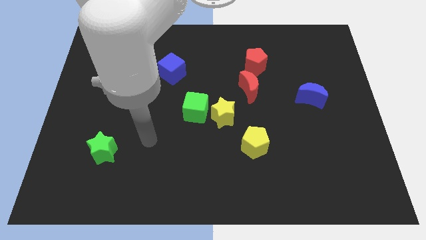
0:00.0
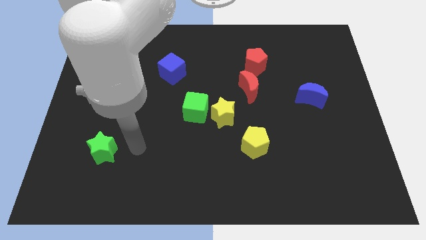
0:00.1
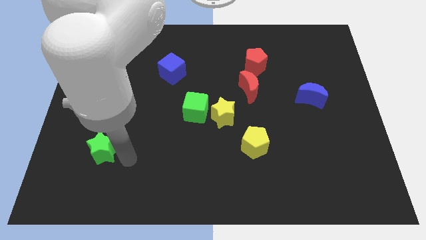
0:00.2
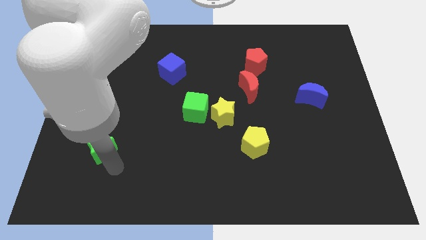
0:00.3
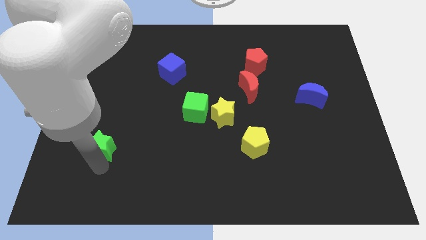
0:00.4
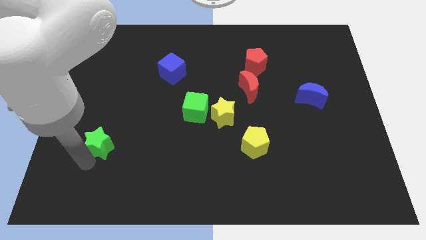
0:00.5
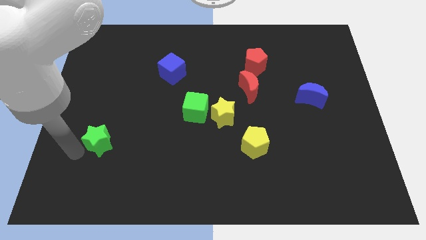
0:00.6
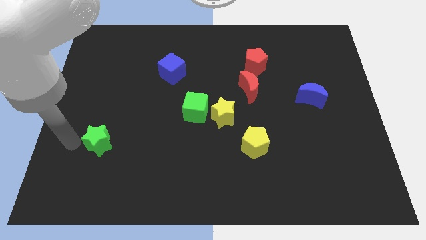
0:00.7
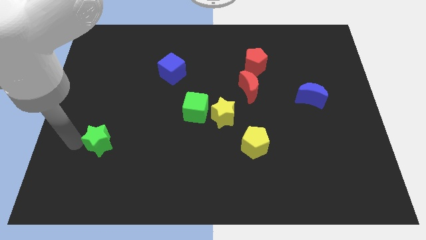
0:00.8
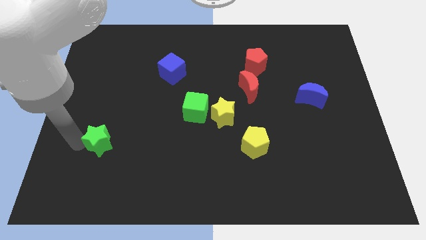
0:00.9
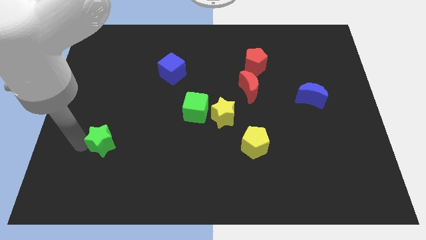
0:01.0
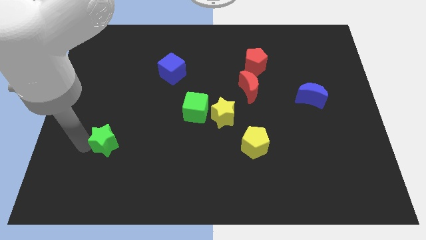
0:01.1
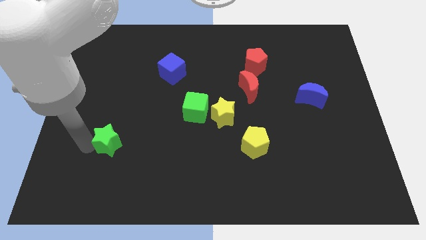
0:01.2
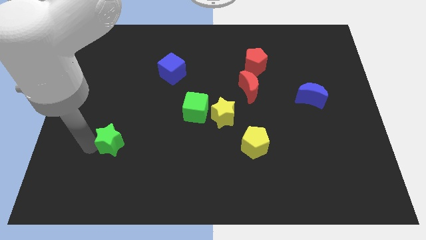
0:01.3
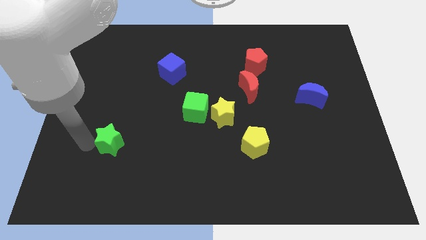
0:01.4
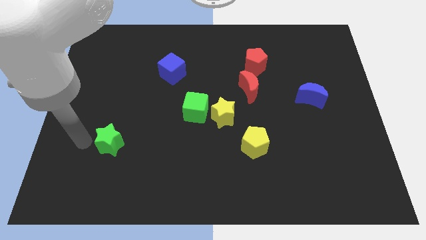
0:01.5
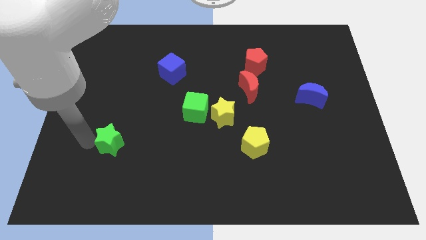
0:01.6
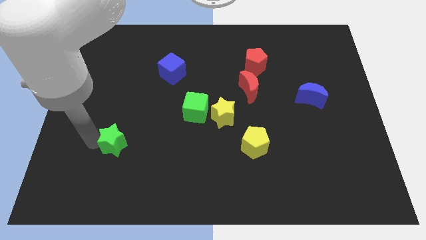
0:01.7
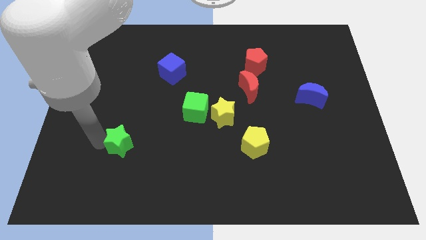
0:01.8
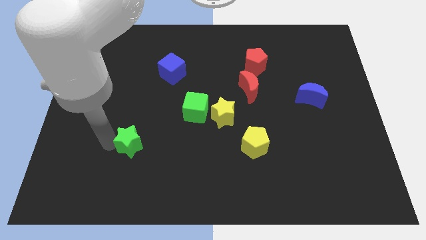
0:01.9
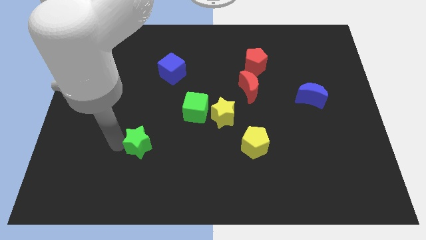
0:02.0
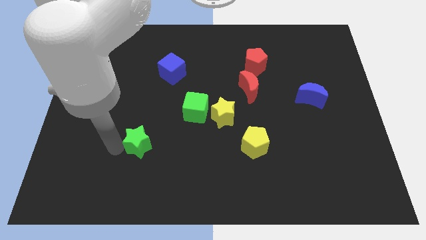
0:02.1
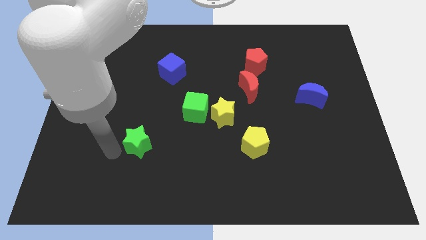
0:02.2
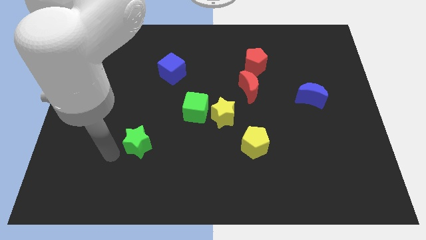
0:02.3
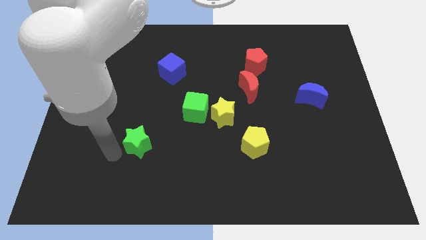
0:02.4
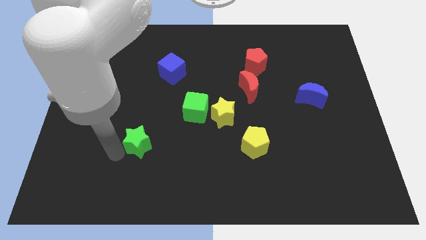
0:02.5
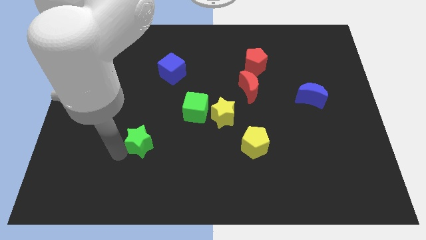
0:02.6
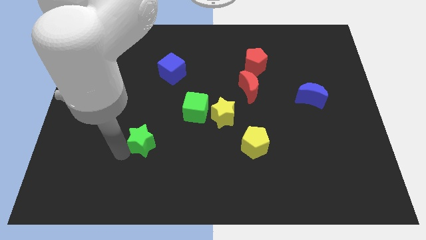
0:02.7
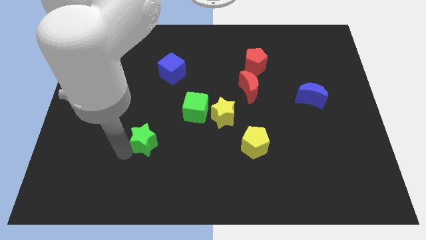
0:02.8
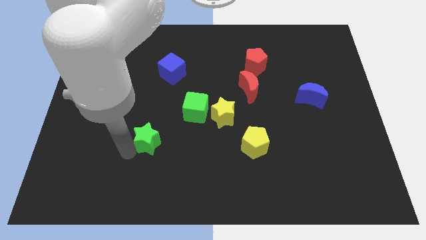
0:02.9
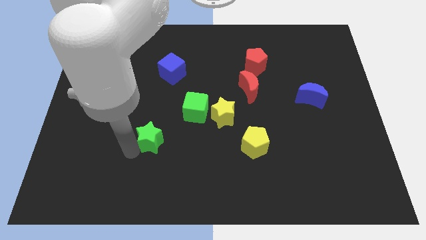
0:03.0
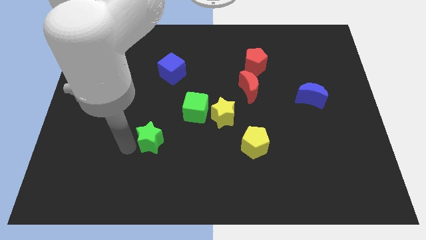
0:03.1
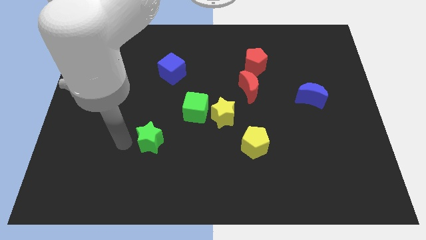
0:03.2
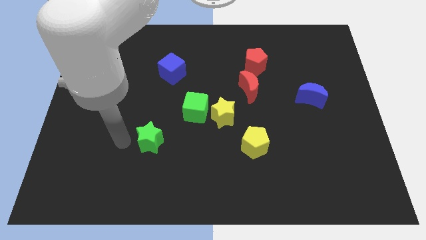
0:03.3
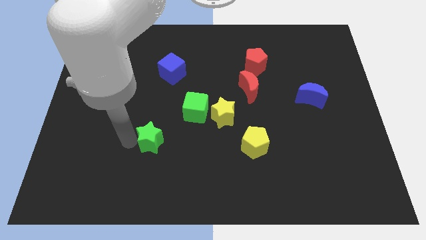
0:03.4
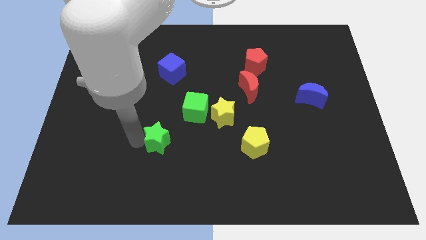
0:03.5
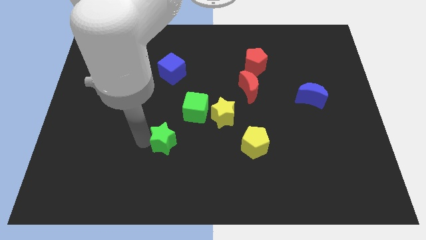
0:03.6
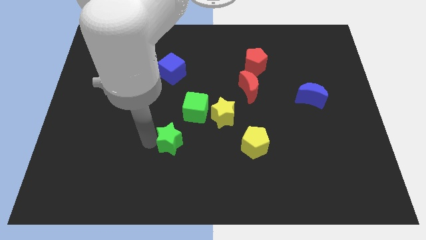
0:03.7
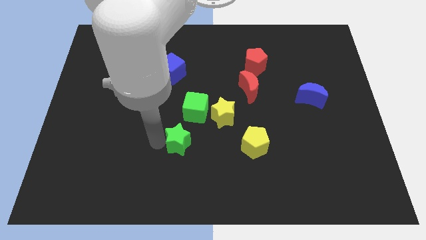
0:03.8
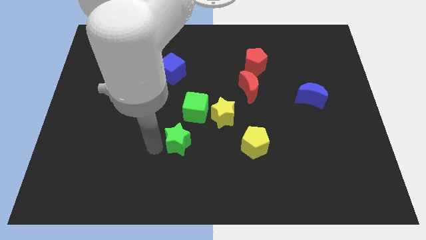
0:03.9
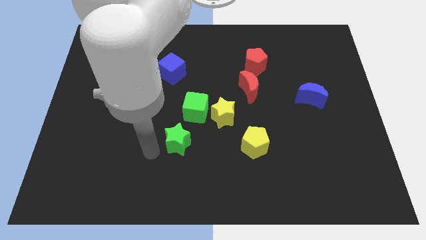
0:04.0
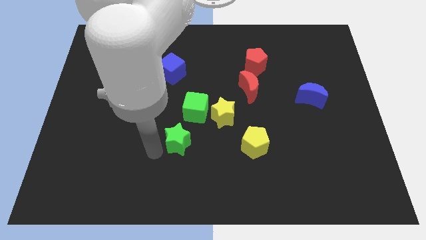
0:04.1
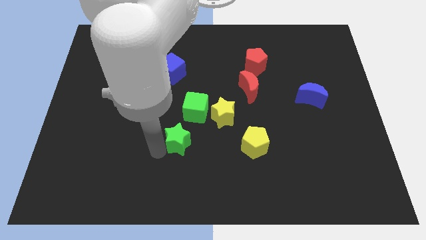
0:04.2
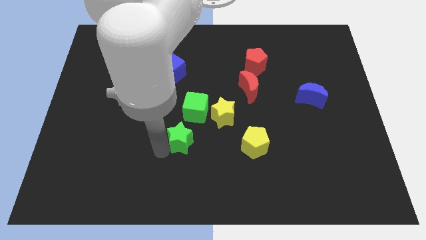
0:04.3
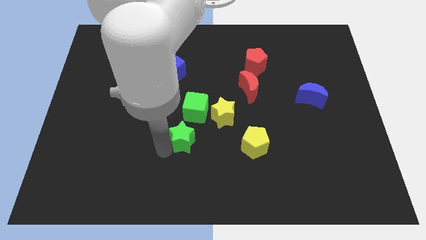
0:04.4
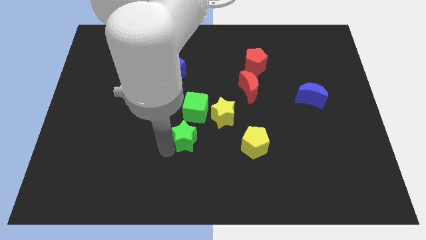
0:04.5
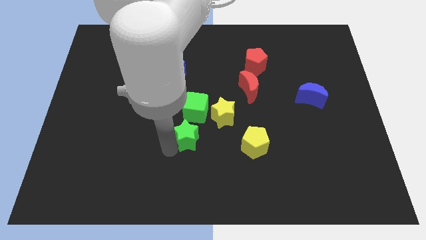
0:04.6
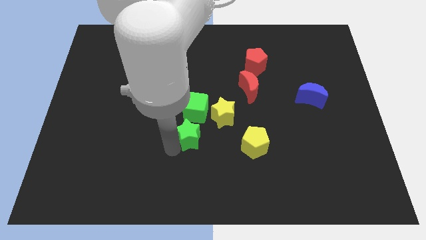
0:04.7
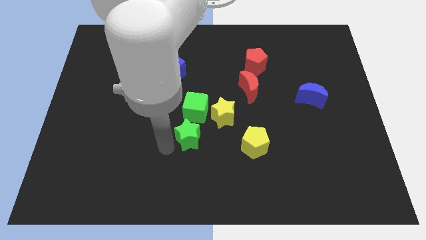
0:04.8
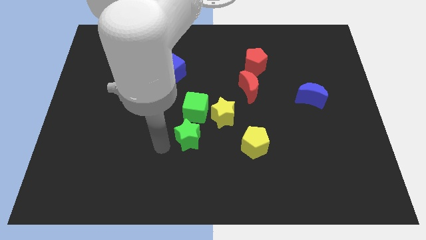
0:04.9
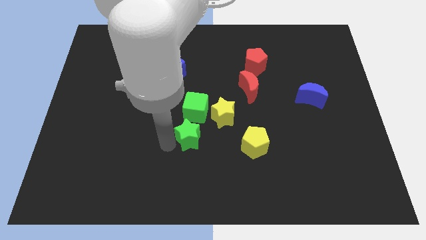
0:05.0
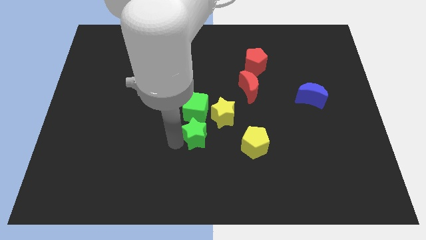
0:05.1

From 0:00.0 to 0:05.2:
put the green star to the bottom right of the green cube

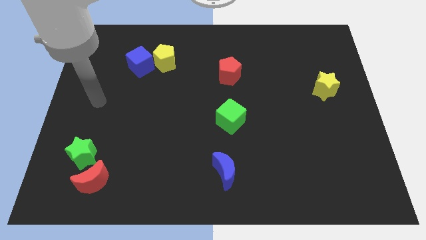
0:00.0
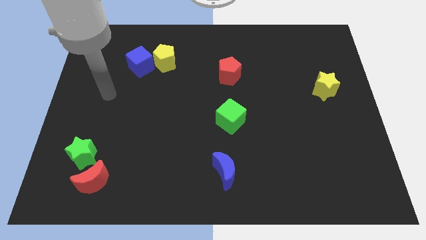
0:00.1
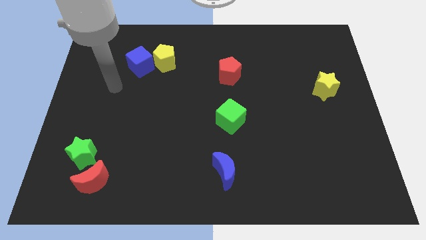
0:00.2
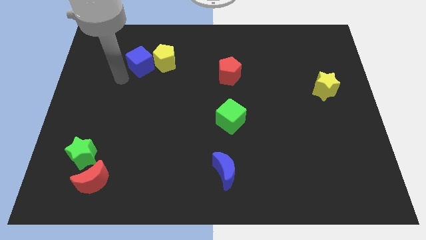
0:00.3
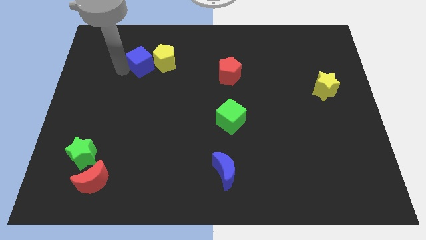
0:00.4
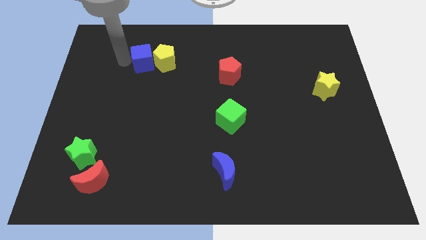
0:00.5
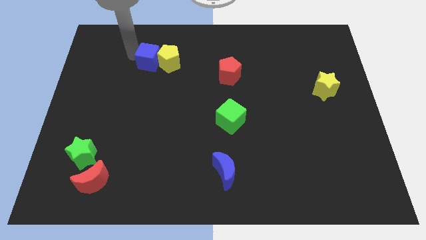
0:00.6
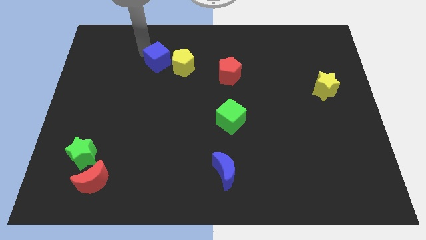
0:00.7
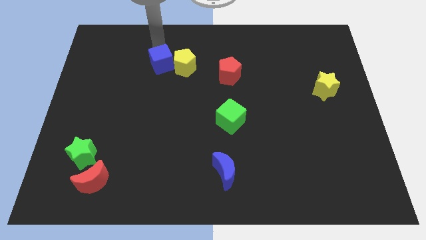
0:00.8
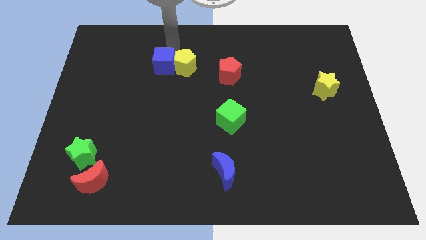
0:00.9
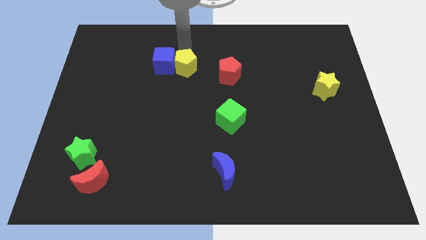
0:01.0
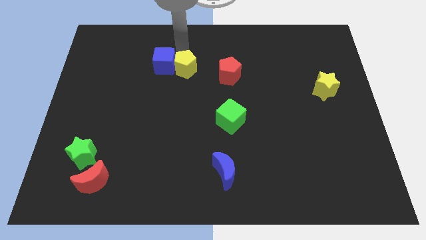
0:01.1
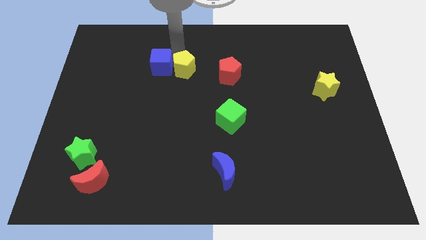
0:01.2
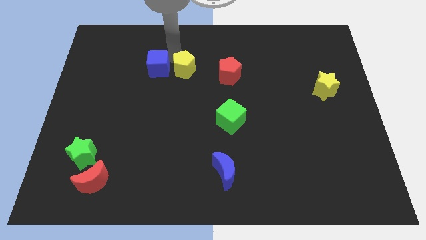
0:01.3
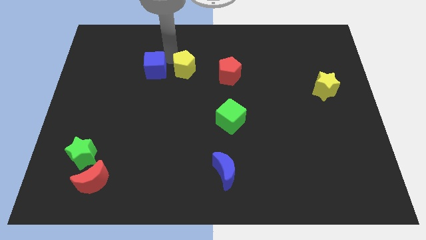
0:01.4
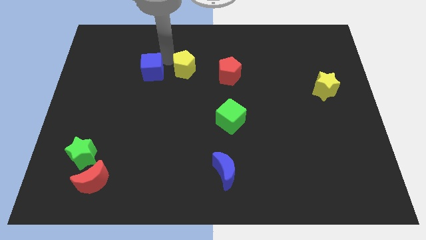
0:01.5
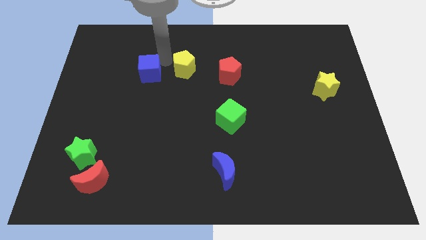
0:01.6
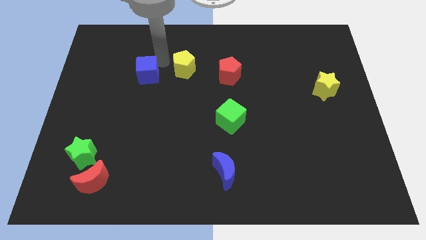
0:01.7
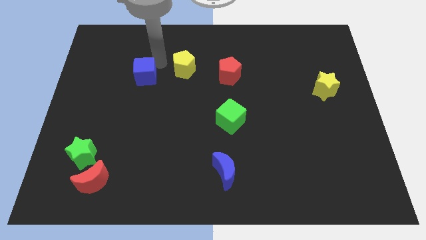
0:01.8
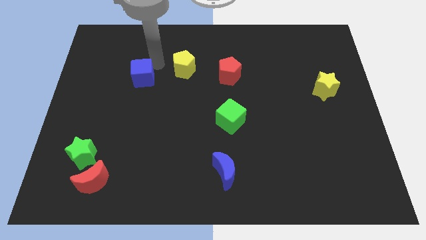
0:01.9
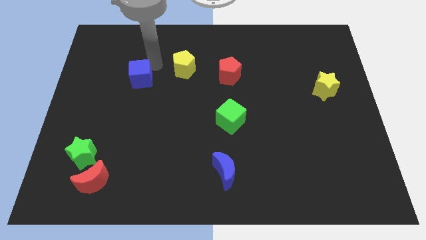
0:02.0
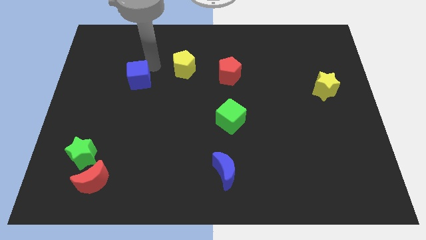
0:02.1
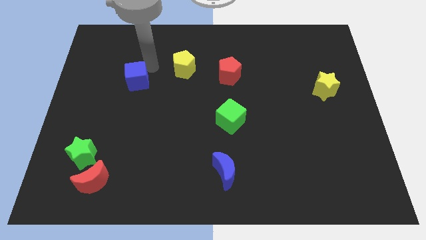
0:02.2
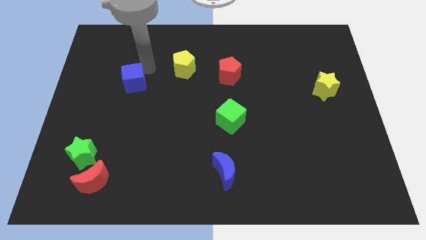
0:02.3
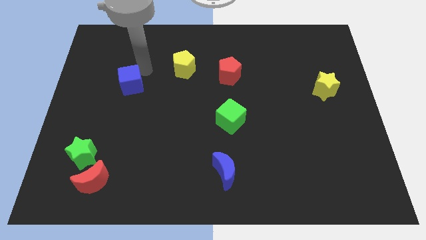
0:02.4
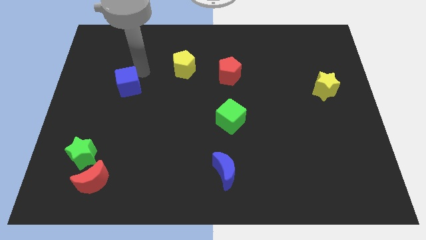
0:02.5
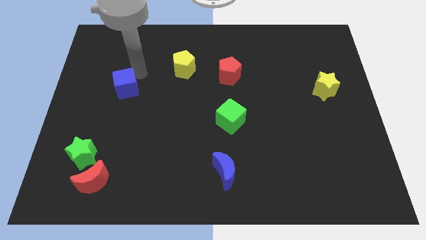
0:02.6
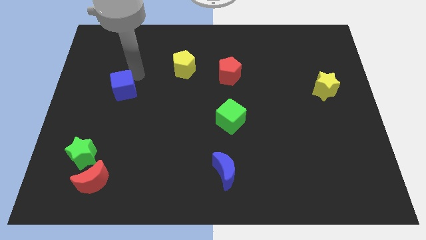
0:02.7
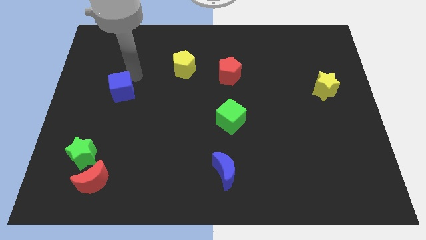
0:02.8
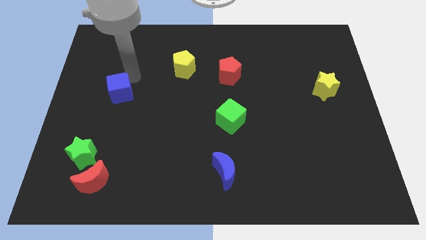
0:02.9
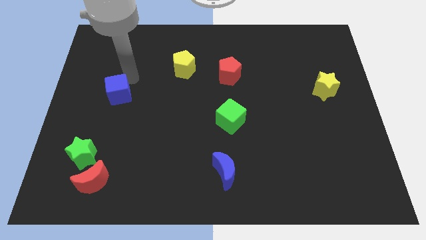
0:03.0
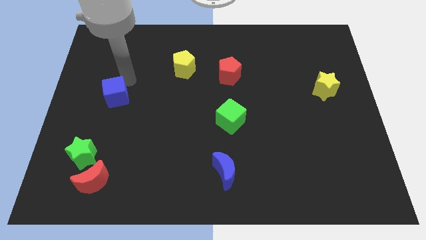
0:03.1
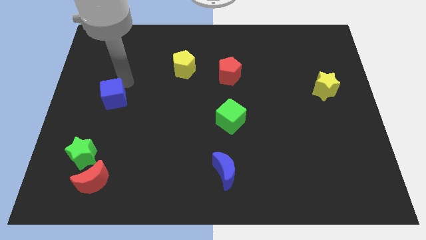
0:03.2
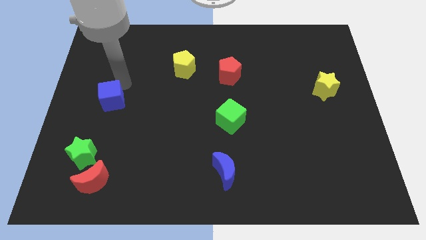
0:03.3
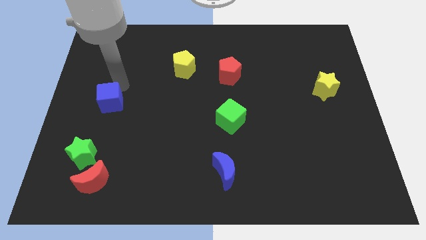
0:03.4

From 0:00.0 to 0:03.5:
slide the blue cube to the top of the green star
